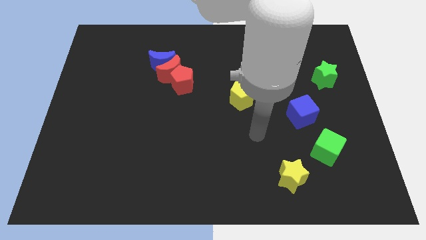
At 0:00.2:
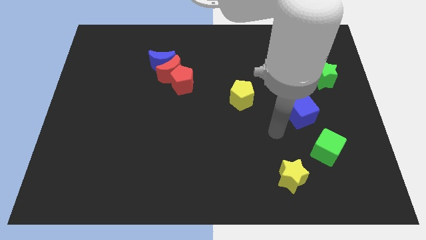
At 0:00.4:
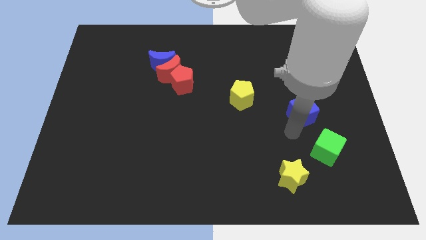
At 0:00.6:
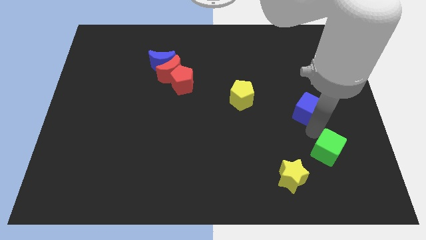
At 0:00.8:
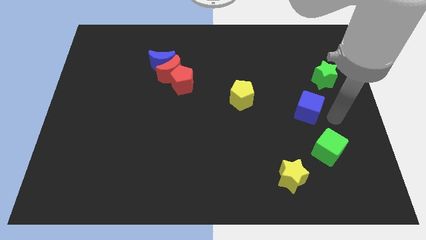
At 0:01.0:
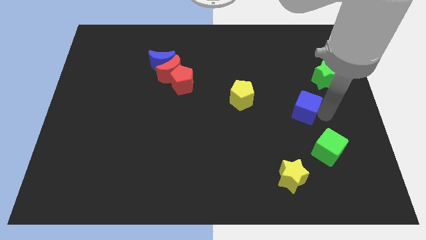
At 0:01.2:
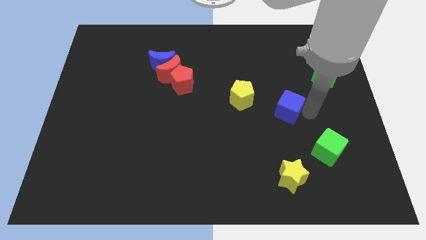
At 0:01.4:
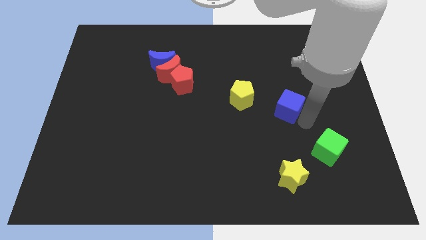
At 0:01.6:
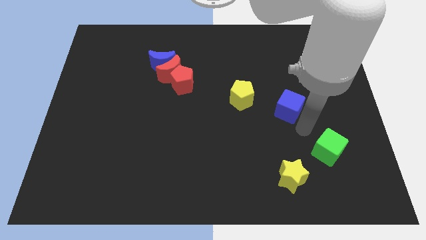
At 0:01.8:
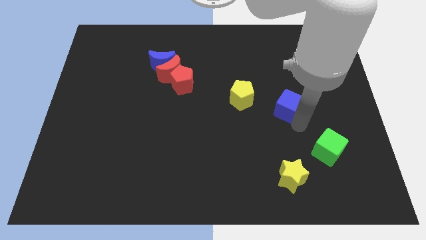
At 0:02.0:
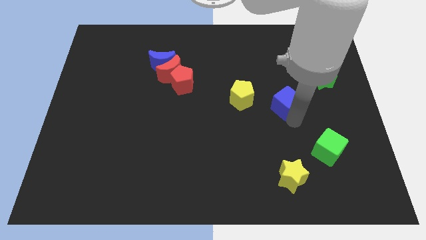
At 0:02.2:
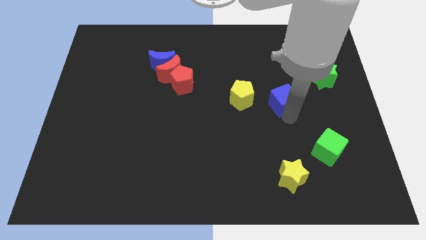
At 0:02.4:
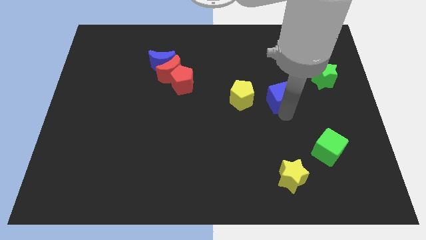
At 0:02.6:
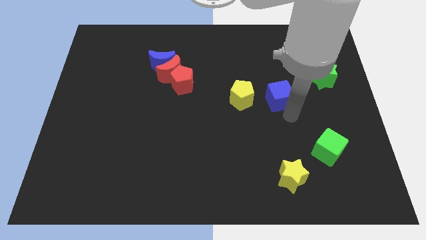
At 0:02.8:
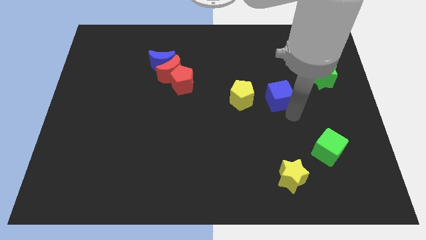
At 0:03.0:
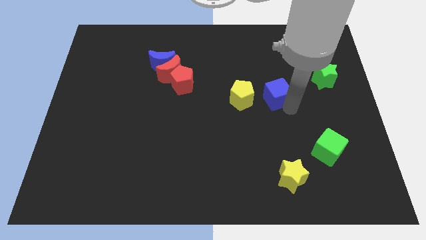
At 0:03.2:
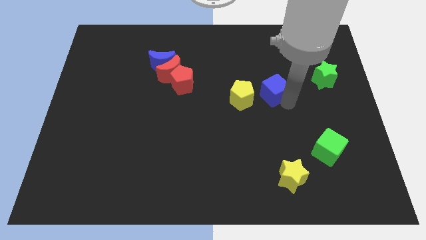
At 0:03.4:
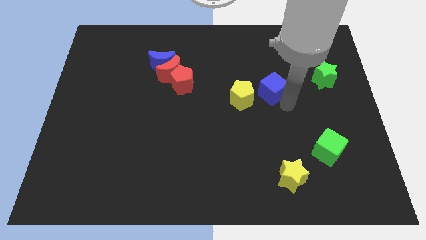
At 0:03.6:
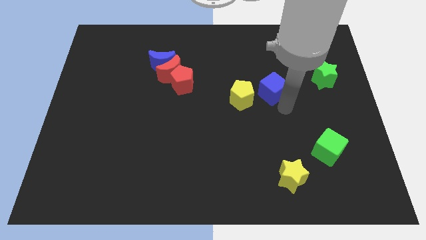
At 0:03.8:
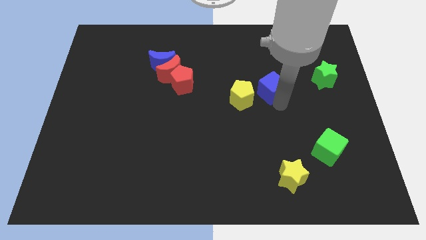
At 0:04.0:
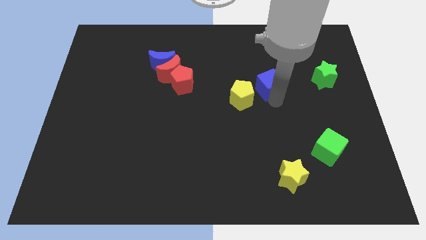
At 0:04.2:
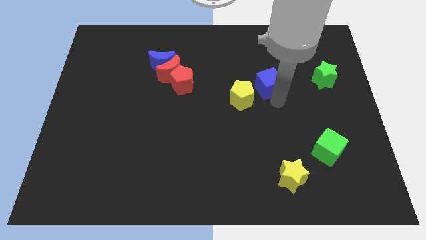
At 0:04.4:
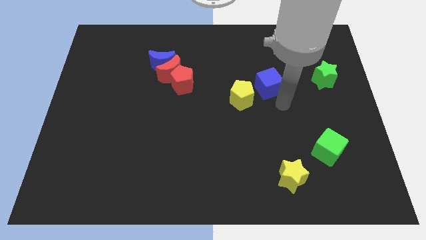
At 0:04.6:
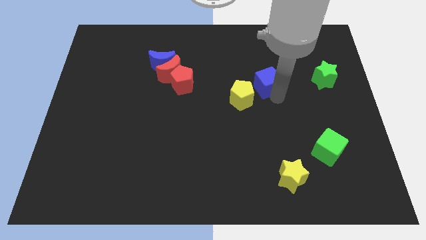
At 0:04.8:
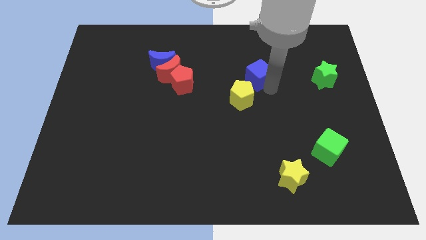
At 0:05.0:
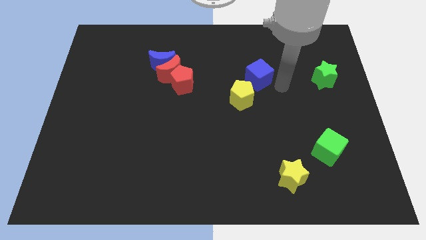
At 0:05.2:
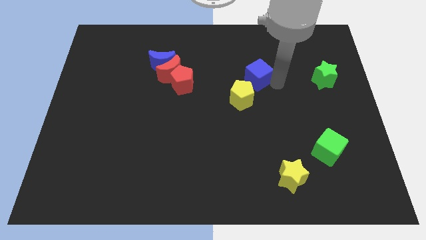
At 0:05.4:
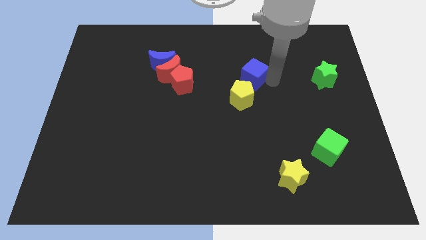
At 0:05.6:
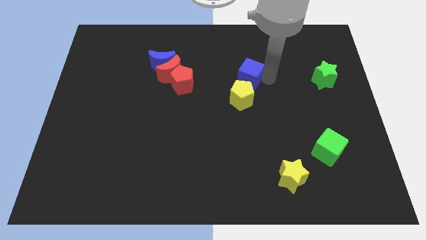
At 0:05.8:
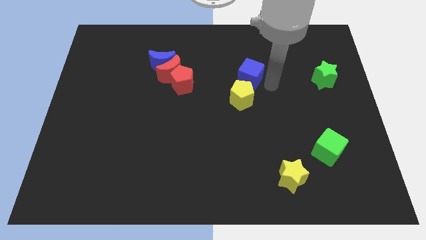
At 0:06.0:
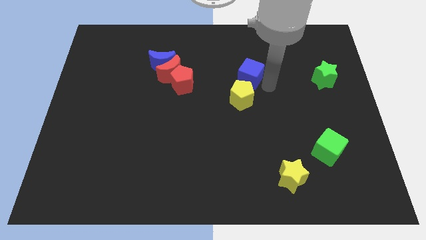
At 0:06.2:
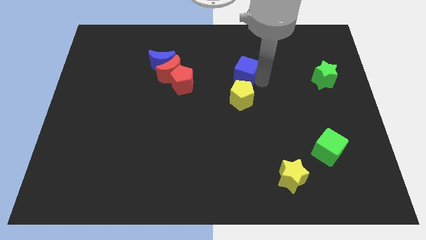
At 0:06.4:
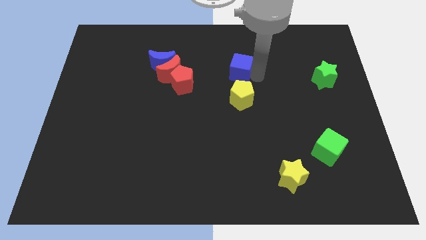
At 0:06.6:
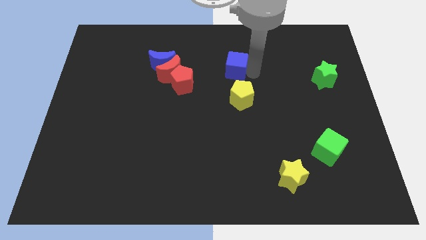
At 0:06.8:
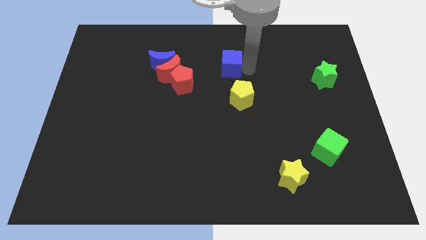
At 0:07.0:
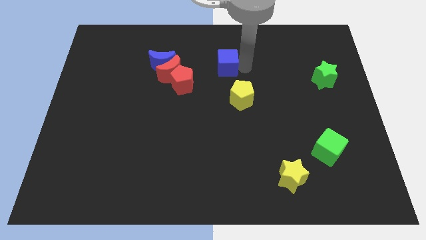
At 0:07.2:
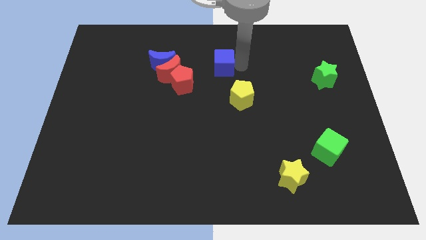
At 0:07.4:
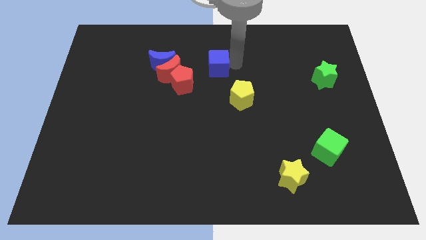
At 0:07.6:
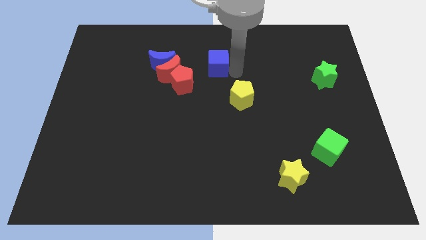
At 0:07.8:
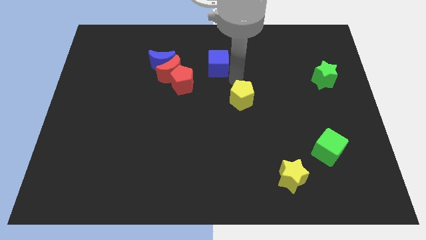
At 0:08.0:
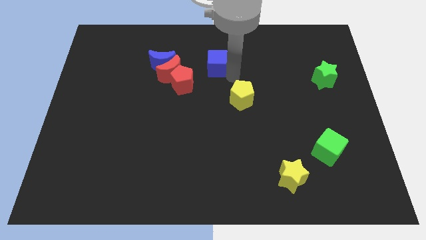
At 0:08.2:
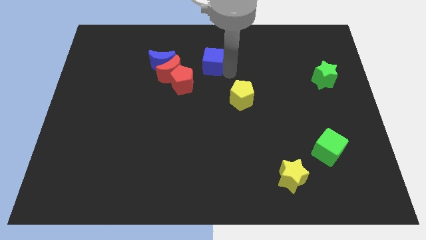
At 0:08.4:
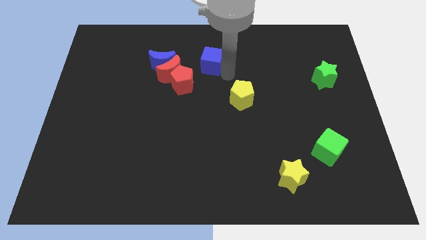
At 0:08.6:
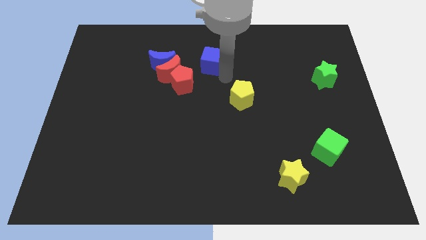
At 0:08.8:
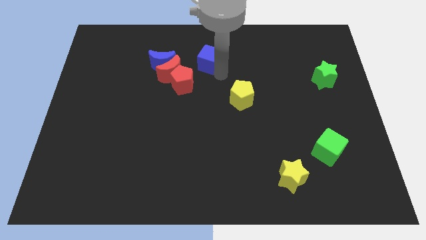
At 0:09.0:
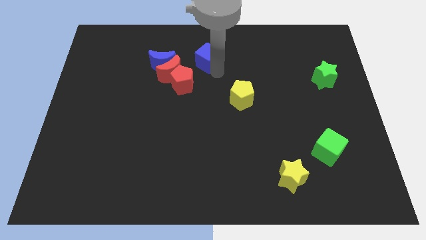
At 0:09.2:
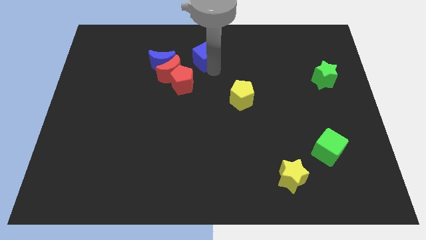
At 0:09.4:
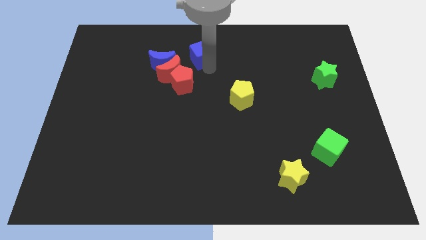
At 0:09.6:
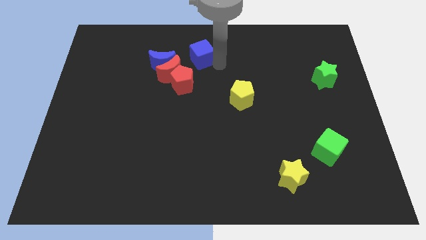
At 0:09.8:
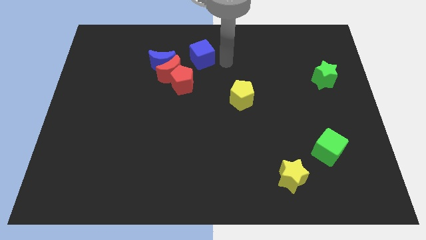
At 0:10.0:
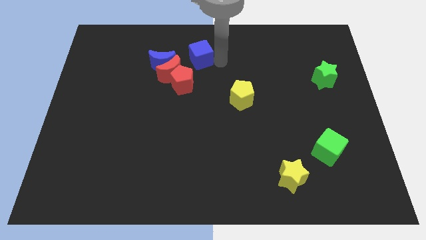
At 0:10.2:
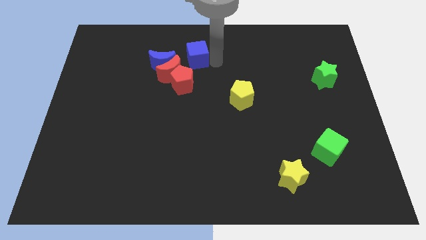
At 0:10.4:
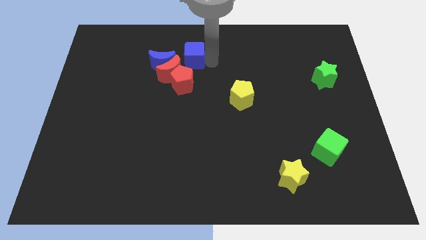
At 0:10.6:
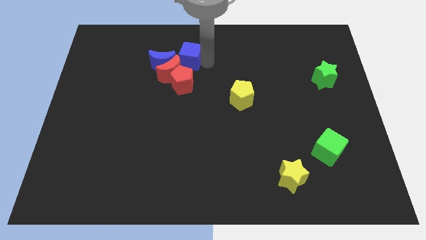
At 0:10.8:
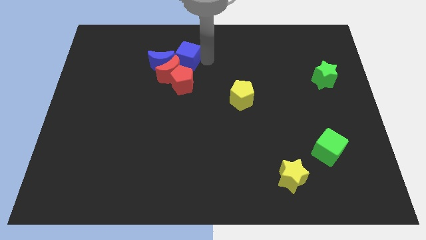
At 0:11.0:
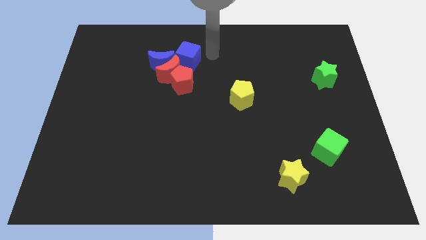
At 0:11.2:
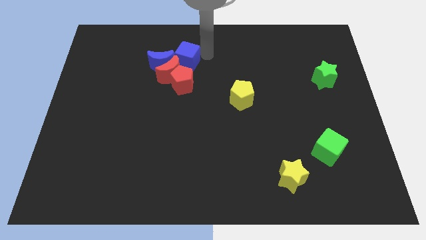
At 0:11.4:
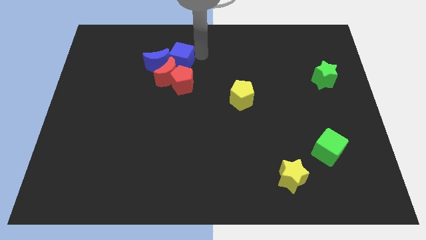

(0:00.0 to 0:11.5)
move the blue cube to the blue moon

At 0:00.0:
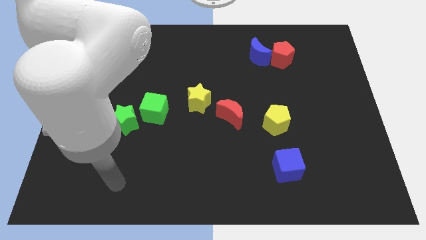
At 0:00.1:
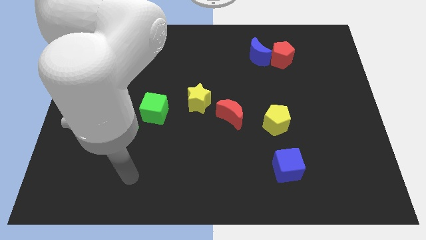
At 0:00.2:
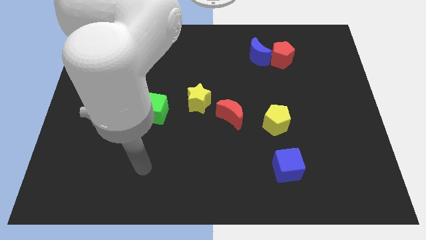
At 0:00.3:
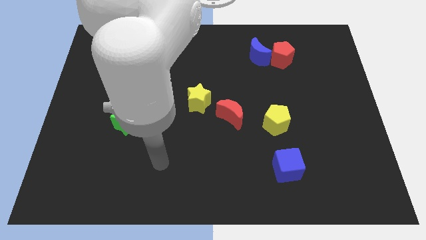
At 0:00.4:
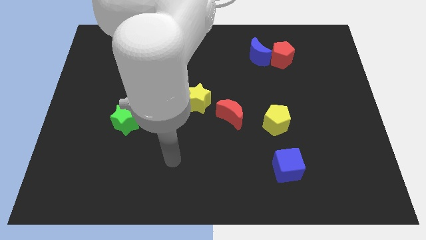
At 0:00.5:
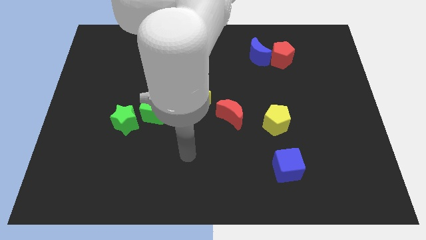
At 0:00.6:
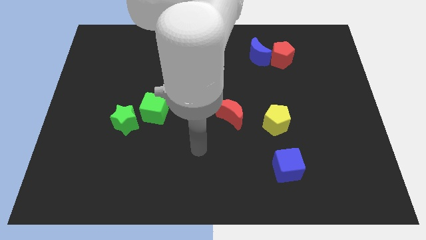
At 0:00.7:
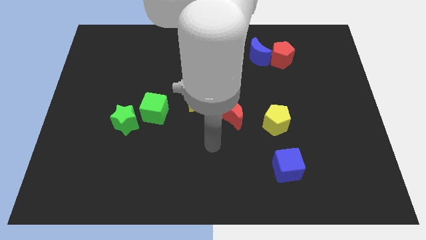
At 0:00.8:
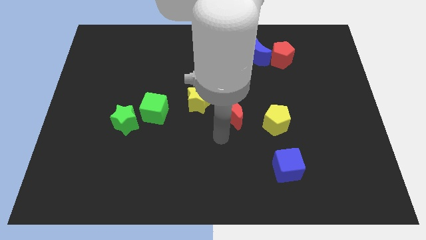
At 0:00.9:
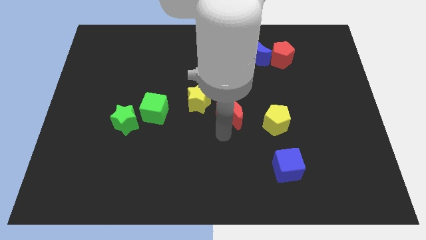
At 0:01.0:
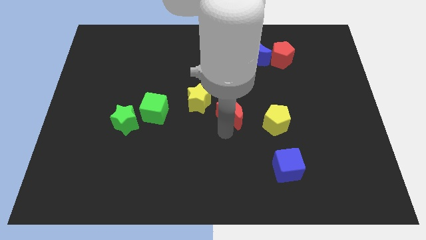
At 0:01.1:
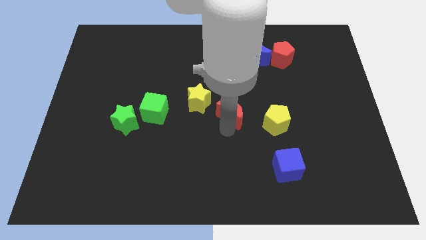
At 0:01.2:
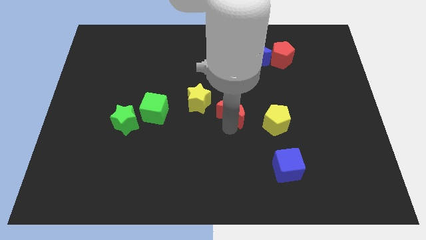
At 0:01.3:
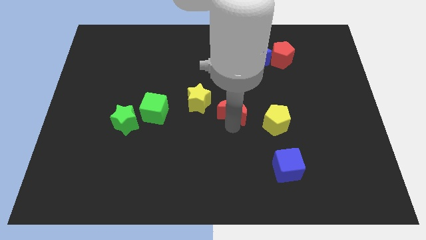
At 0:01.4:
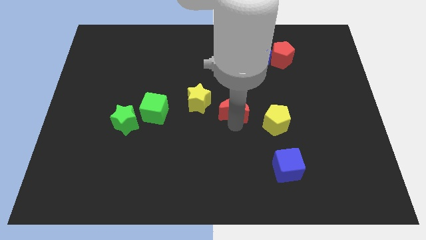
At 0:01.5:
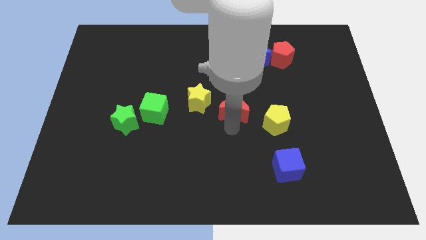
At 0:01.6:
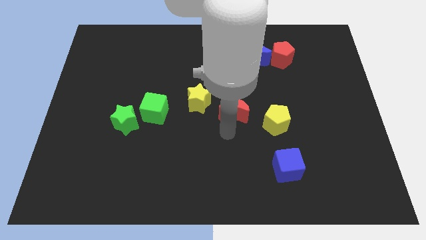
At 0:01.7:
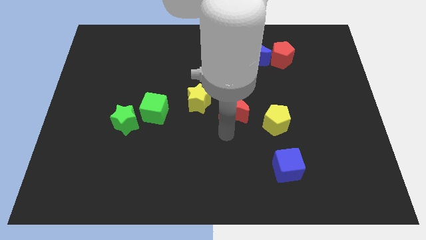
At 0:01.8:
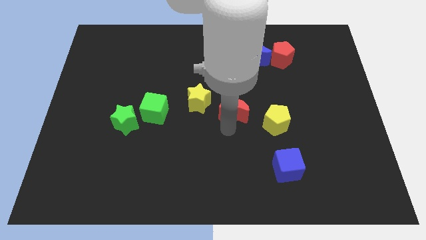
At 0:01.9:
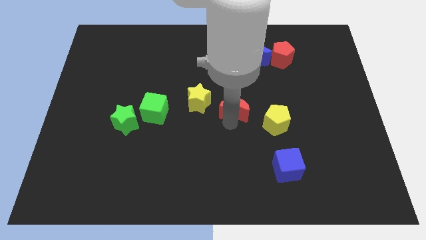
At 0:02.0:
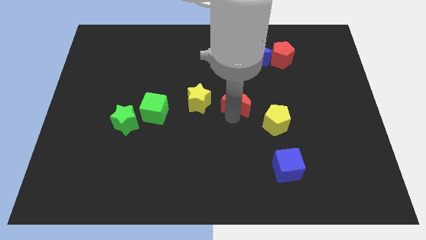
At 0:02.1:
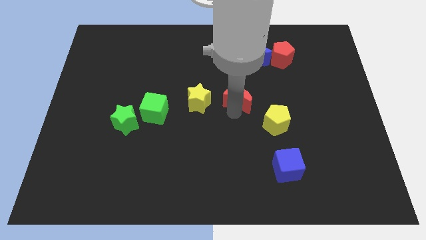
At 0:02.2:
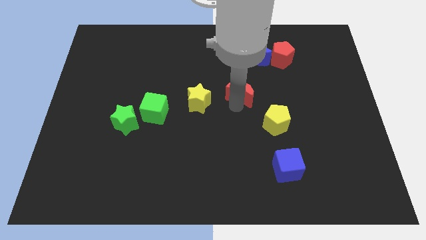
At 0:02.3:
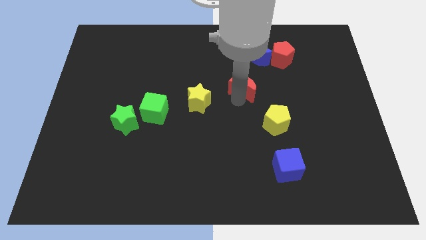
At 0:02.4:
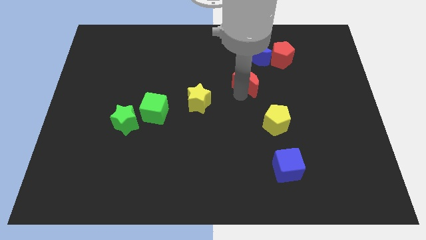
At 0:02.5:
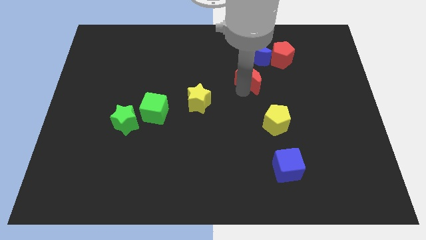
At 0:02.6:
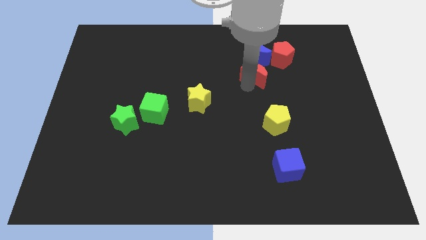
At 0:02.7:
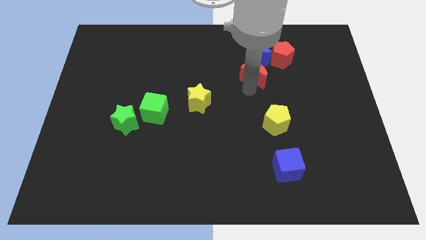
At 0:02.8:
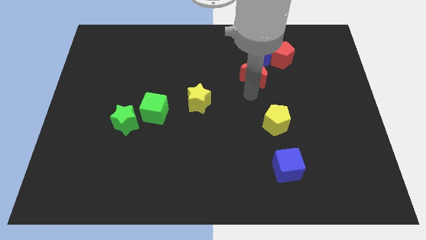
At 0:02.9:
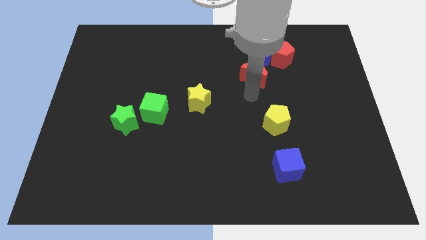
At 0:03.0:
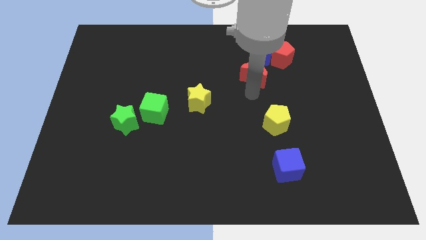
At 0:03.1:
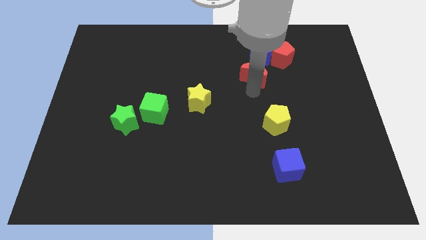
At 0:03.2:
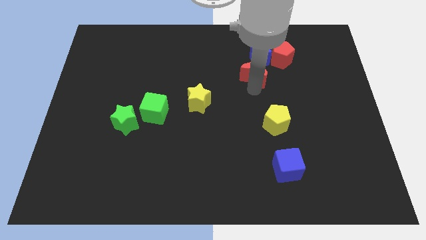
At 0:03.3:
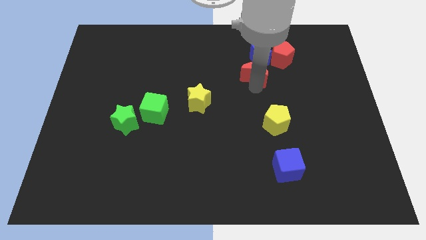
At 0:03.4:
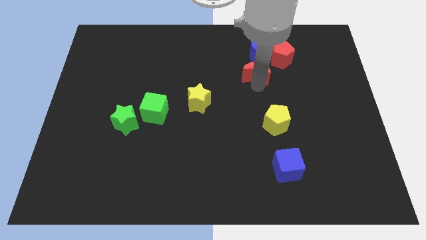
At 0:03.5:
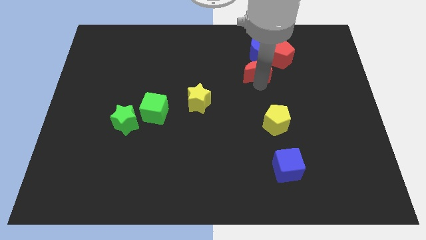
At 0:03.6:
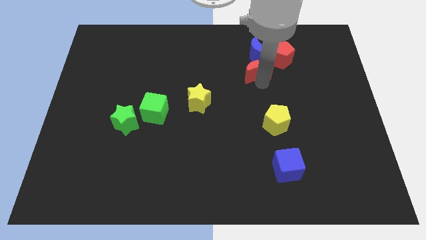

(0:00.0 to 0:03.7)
push the red moon to the blue moon
